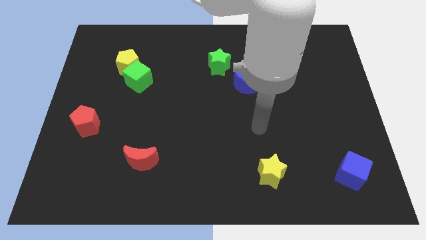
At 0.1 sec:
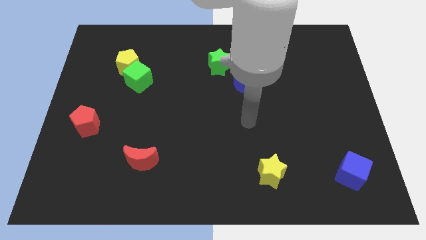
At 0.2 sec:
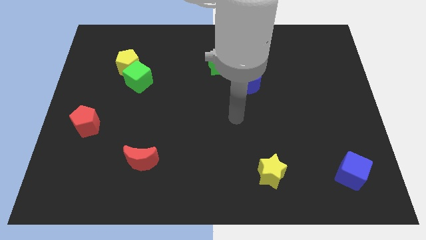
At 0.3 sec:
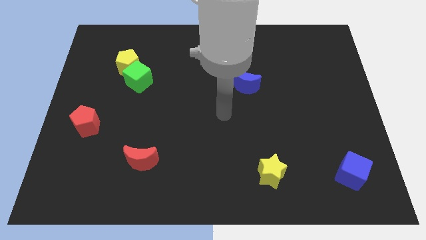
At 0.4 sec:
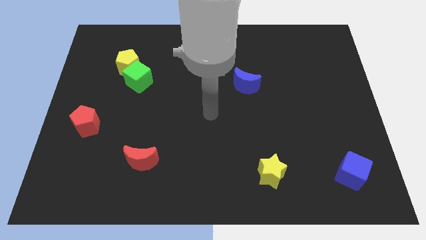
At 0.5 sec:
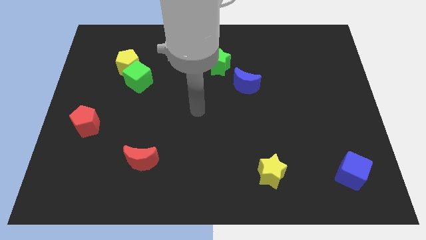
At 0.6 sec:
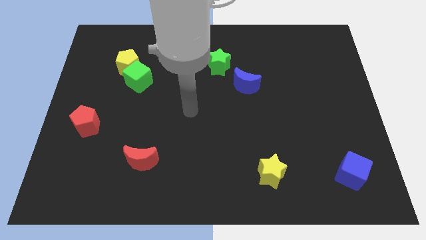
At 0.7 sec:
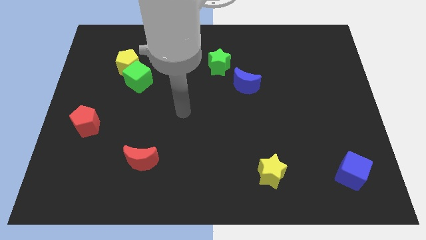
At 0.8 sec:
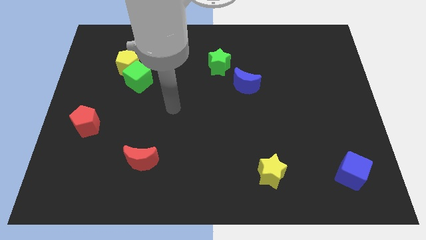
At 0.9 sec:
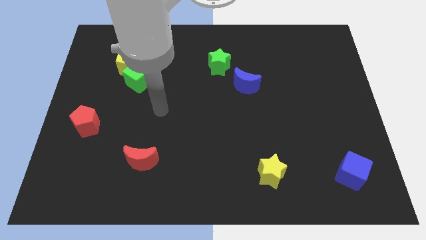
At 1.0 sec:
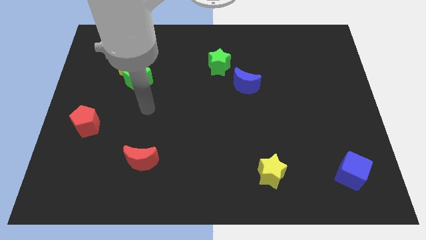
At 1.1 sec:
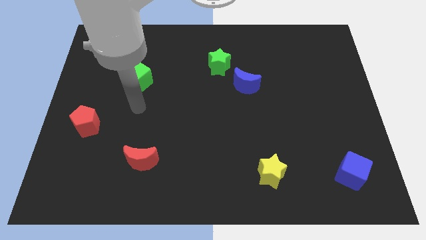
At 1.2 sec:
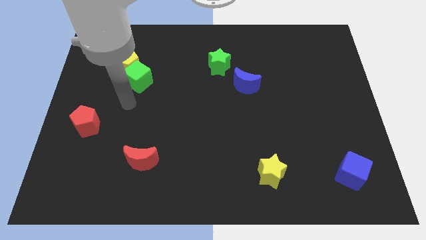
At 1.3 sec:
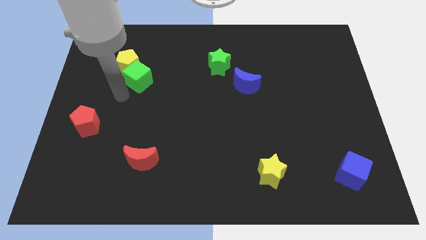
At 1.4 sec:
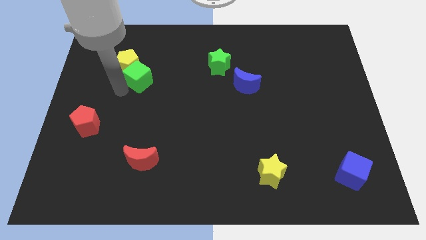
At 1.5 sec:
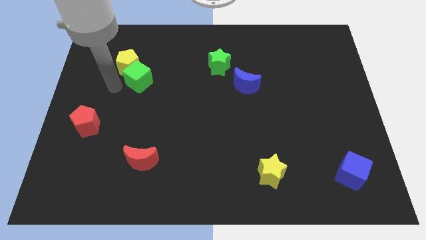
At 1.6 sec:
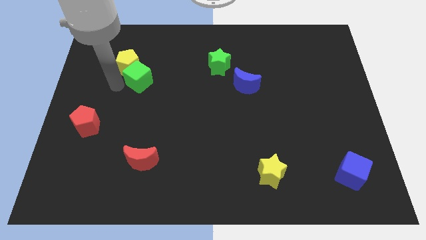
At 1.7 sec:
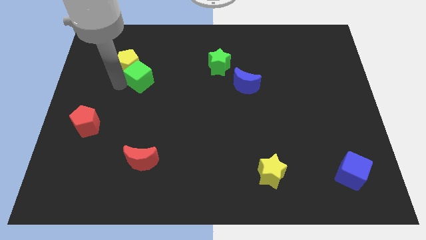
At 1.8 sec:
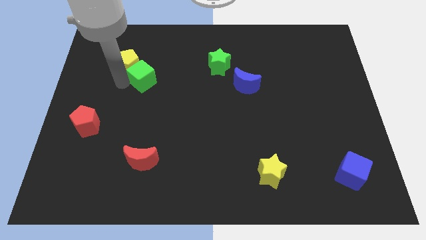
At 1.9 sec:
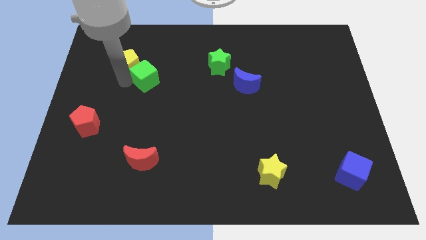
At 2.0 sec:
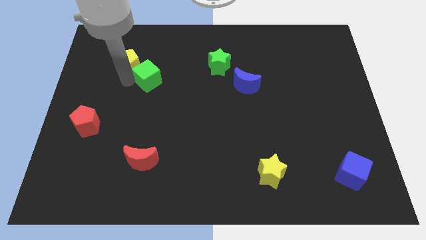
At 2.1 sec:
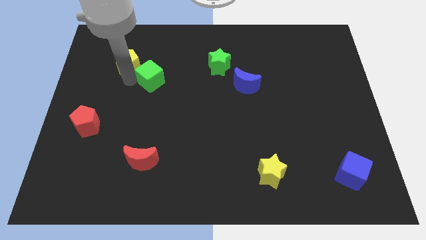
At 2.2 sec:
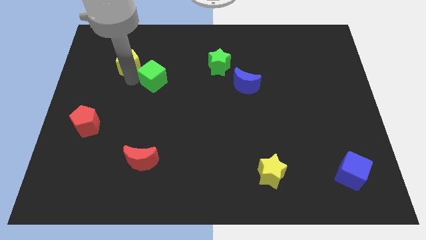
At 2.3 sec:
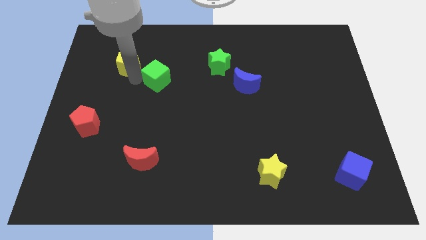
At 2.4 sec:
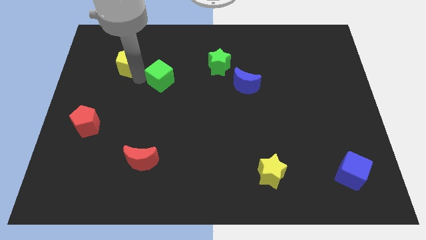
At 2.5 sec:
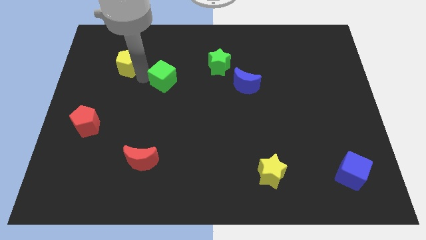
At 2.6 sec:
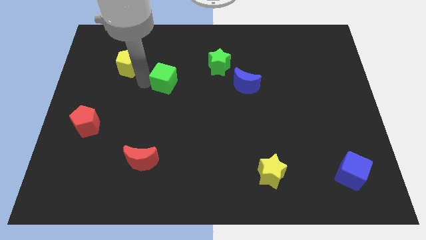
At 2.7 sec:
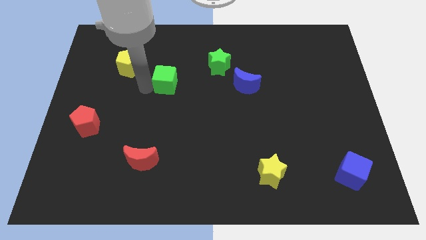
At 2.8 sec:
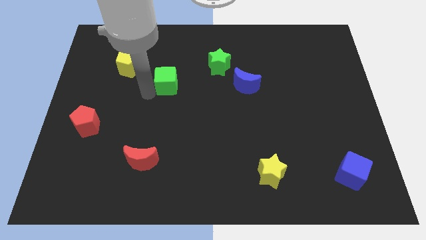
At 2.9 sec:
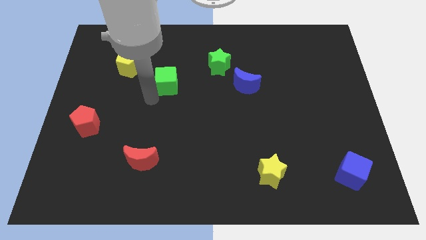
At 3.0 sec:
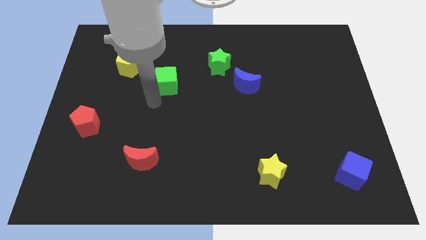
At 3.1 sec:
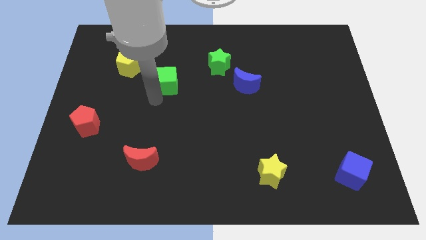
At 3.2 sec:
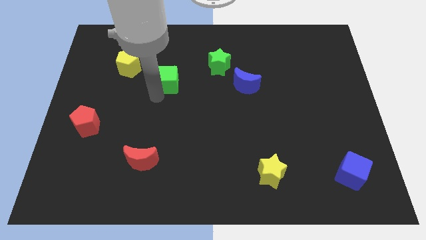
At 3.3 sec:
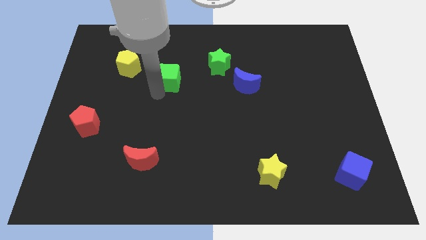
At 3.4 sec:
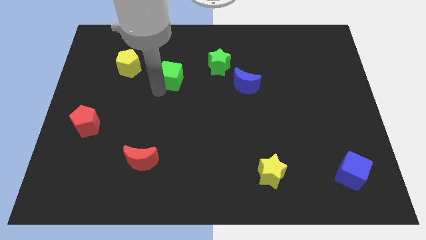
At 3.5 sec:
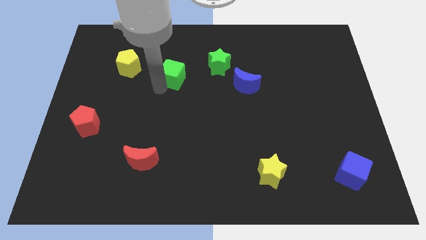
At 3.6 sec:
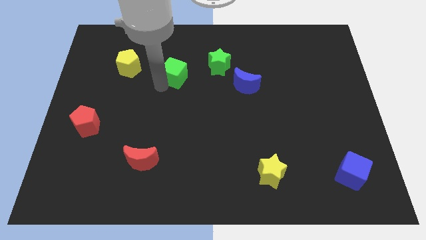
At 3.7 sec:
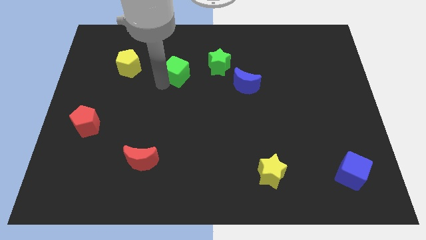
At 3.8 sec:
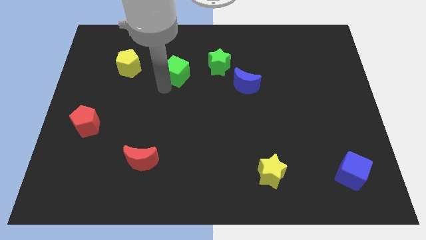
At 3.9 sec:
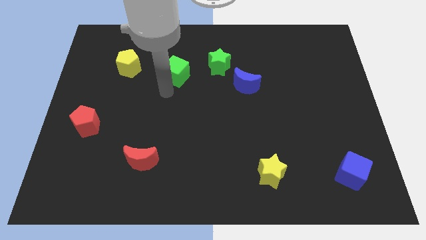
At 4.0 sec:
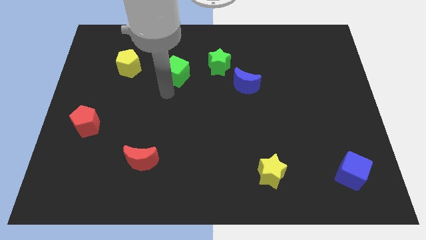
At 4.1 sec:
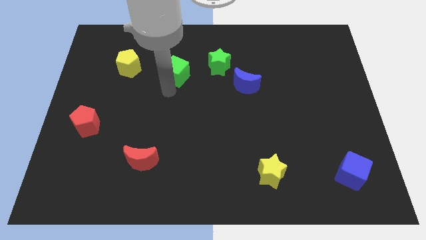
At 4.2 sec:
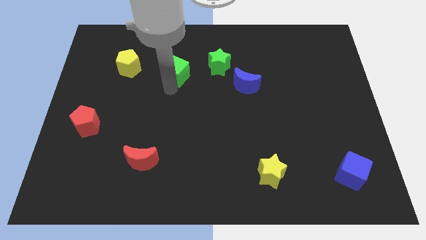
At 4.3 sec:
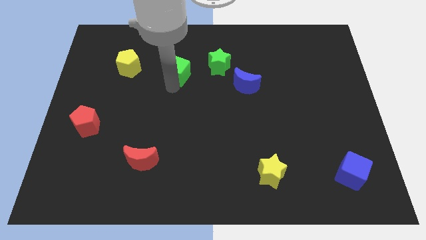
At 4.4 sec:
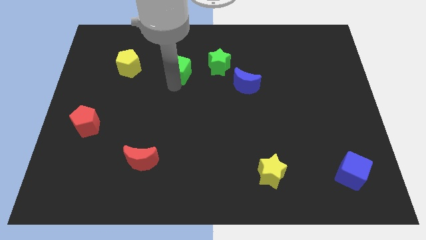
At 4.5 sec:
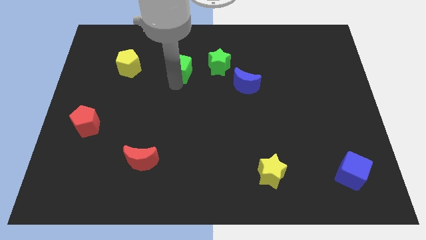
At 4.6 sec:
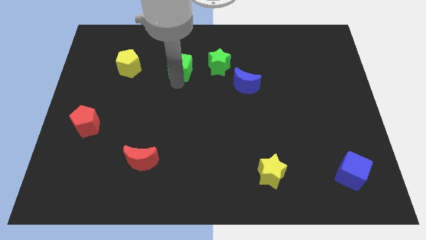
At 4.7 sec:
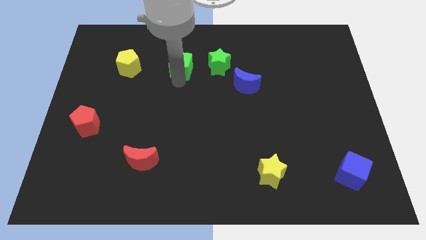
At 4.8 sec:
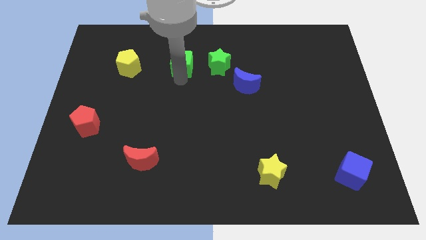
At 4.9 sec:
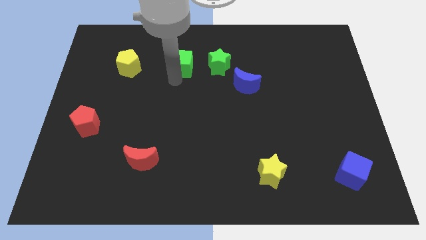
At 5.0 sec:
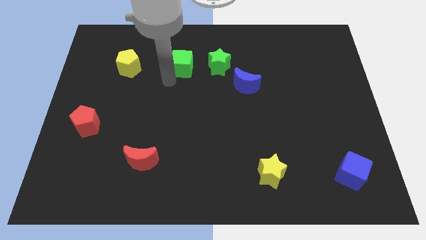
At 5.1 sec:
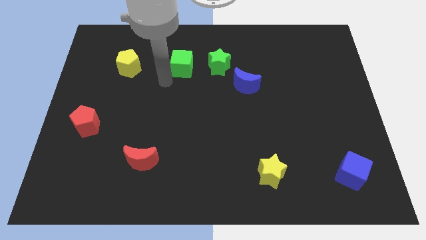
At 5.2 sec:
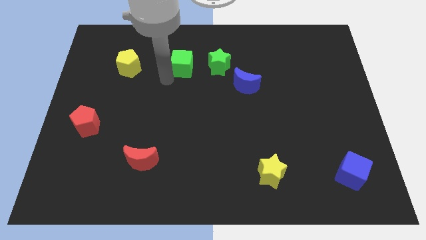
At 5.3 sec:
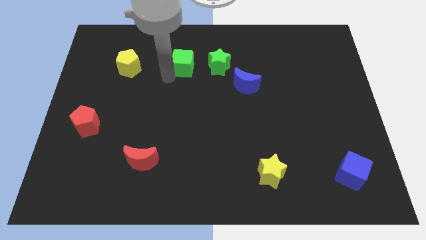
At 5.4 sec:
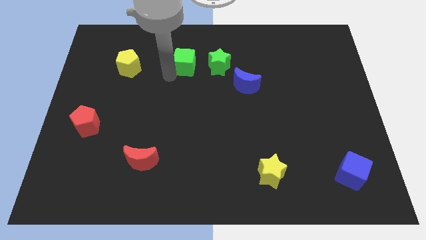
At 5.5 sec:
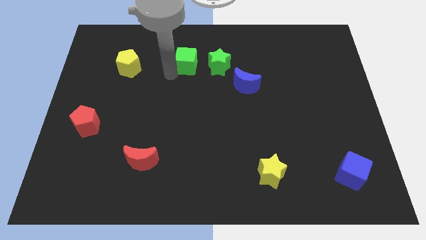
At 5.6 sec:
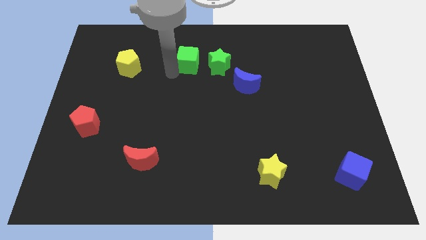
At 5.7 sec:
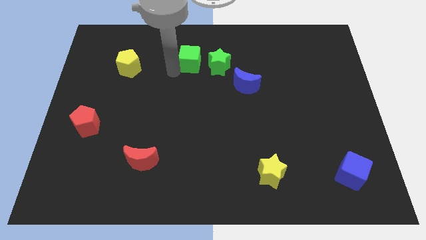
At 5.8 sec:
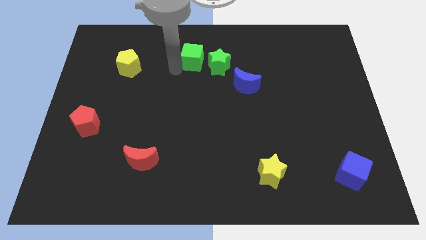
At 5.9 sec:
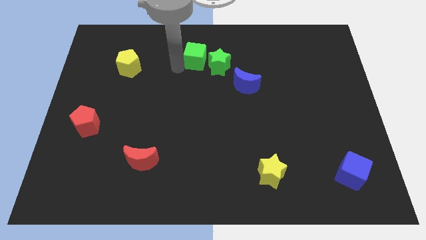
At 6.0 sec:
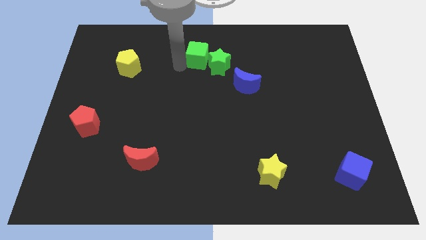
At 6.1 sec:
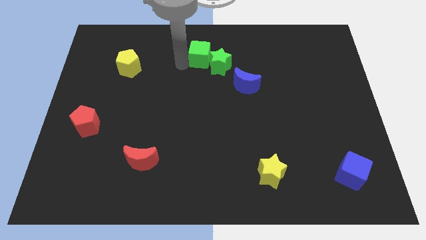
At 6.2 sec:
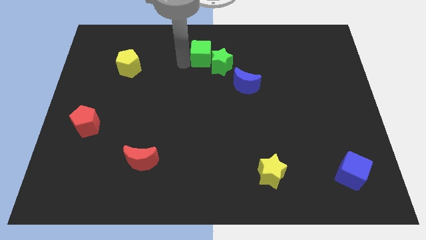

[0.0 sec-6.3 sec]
move the green cube to the top
